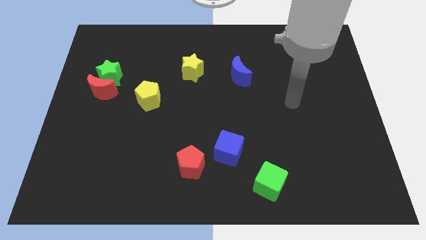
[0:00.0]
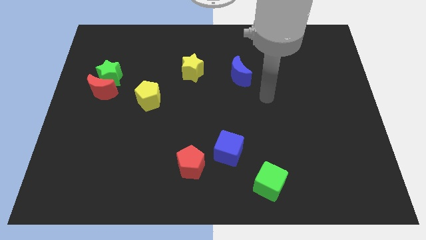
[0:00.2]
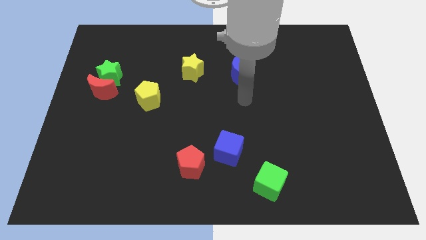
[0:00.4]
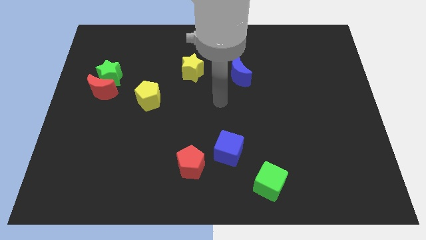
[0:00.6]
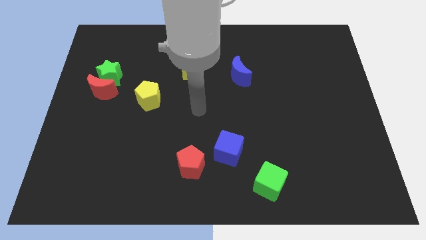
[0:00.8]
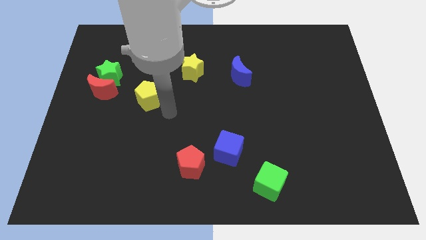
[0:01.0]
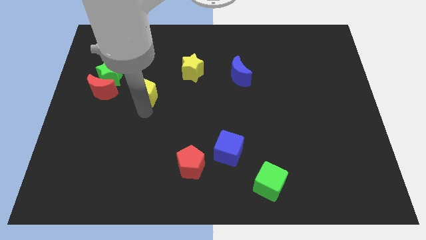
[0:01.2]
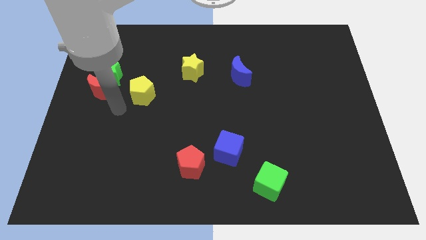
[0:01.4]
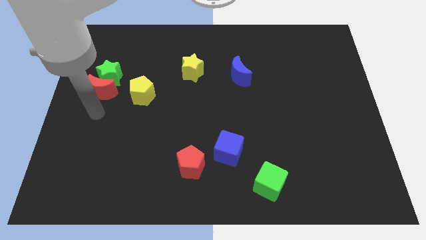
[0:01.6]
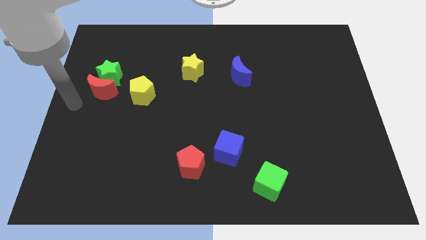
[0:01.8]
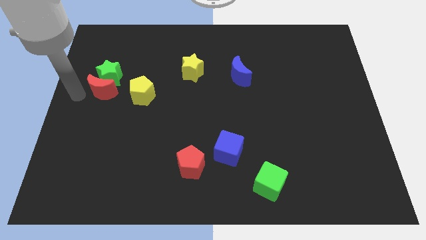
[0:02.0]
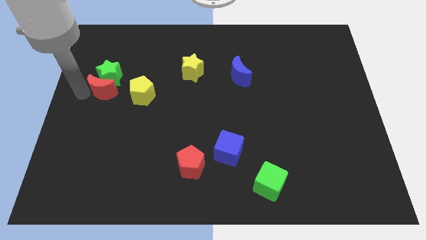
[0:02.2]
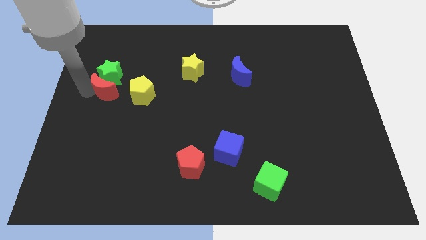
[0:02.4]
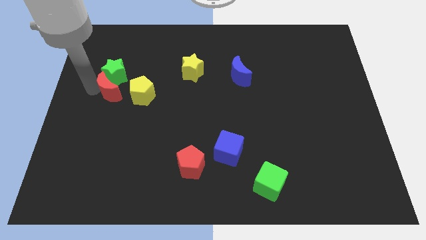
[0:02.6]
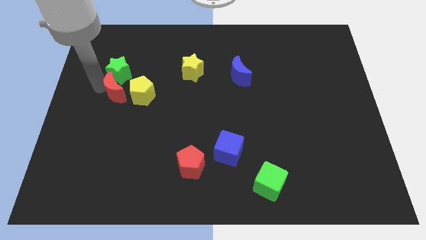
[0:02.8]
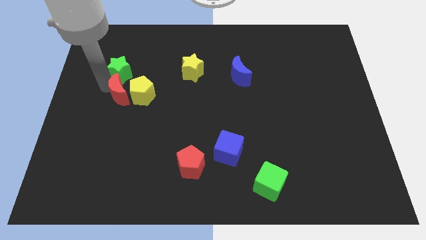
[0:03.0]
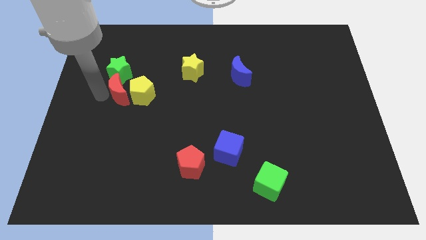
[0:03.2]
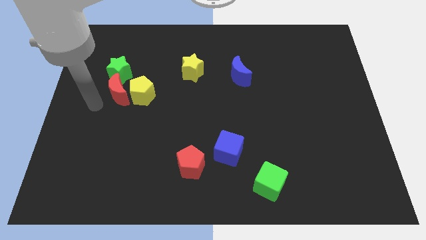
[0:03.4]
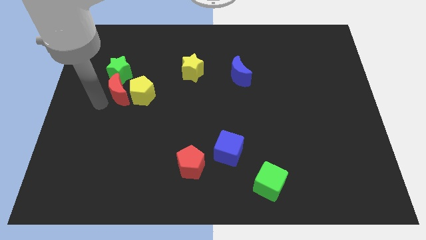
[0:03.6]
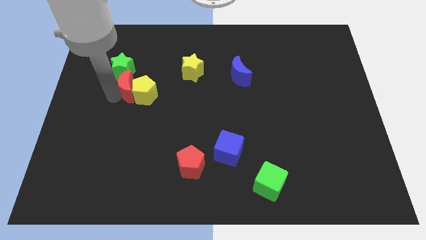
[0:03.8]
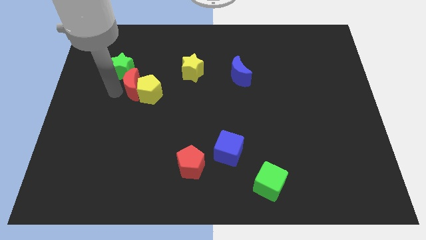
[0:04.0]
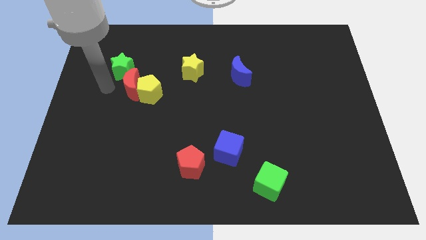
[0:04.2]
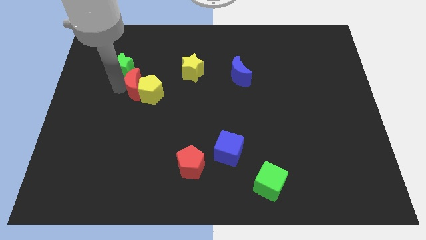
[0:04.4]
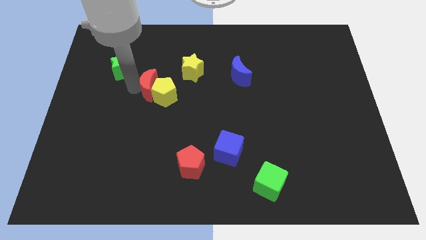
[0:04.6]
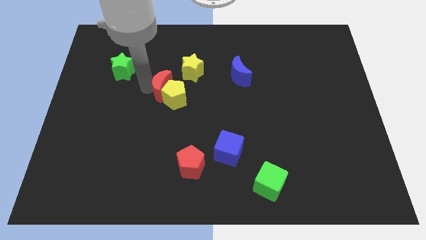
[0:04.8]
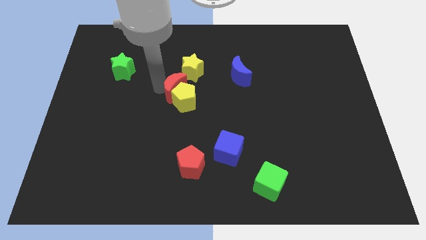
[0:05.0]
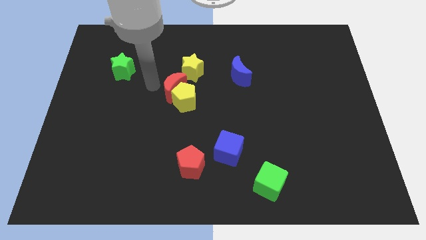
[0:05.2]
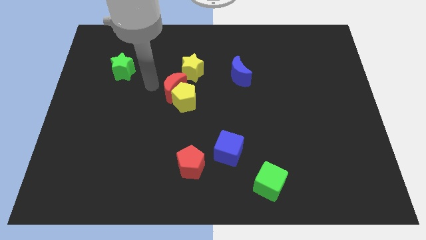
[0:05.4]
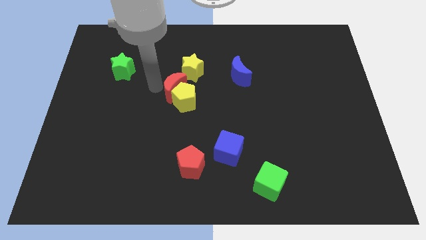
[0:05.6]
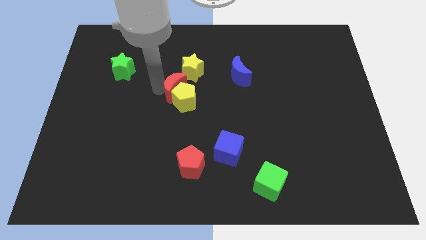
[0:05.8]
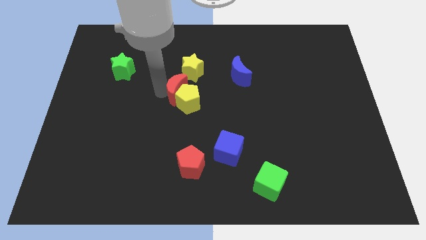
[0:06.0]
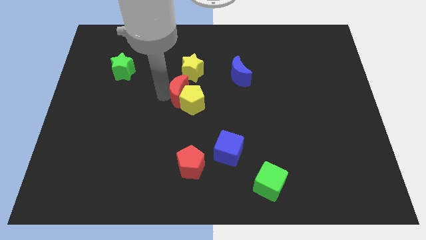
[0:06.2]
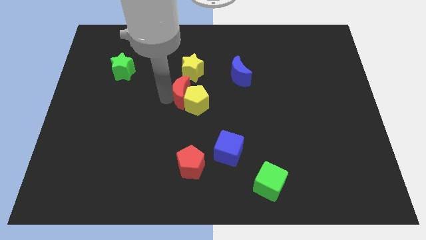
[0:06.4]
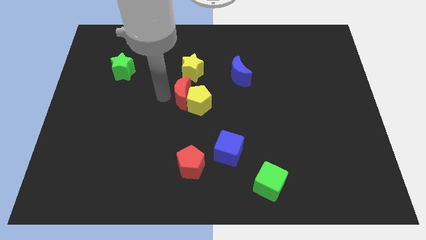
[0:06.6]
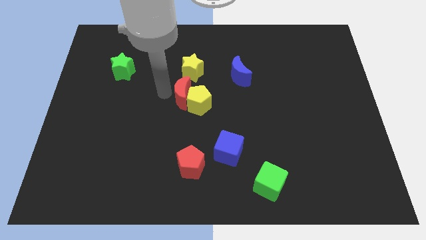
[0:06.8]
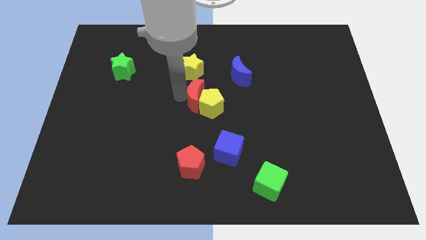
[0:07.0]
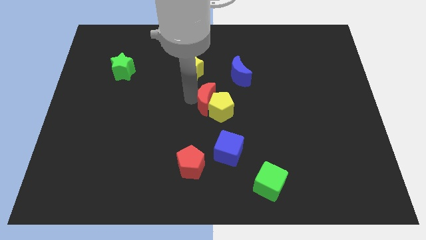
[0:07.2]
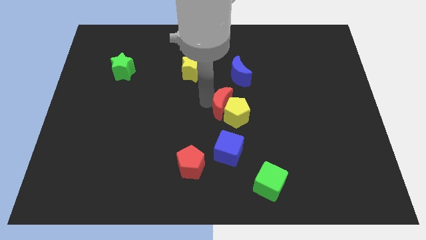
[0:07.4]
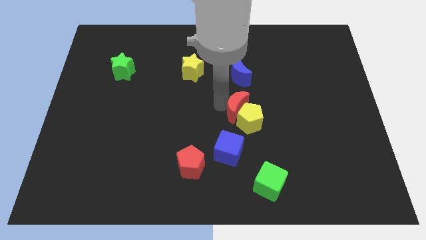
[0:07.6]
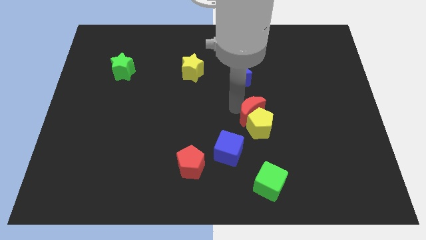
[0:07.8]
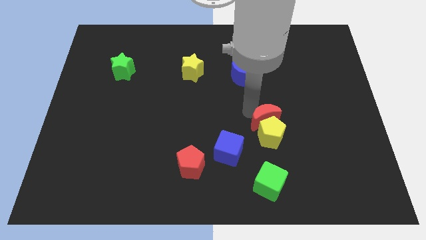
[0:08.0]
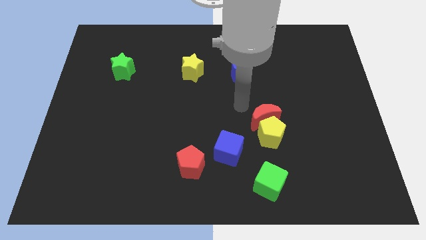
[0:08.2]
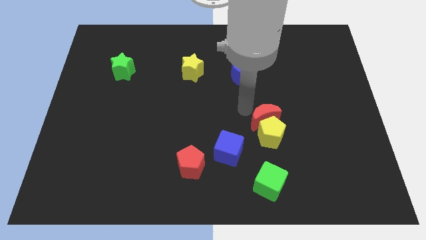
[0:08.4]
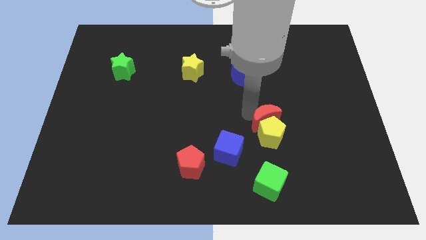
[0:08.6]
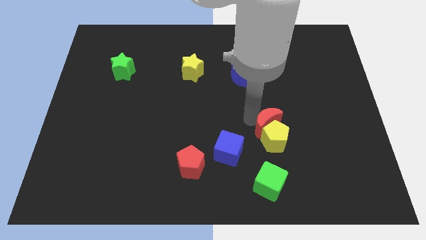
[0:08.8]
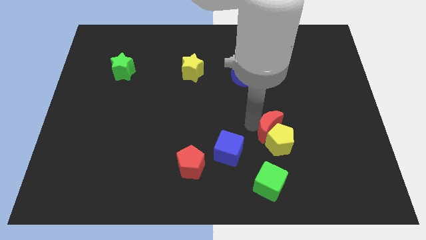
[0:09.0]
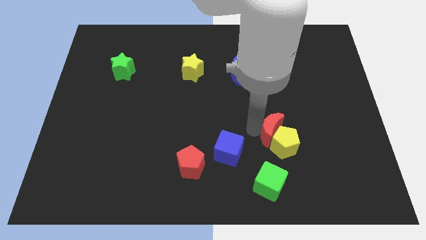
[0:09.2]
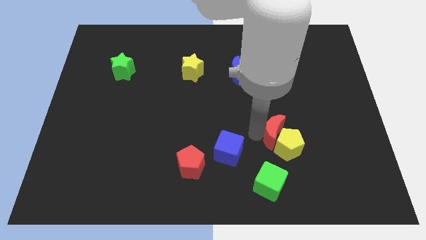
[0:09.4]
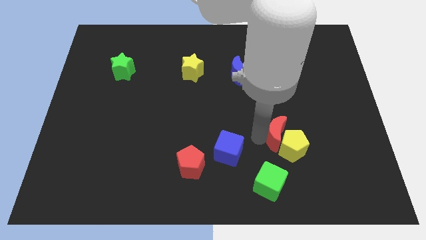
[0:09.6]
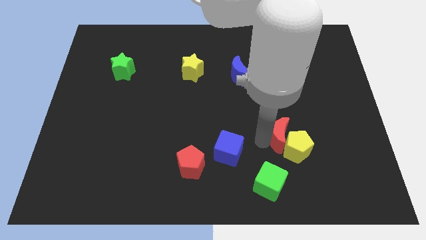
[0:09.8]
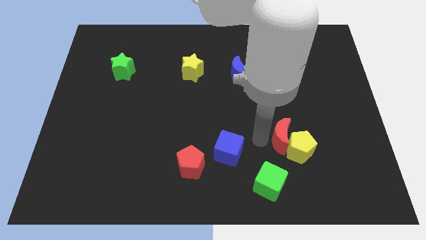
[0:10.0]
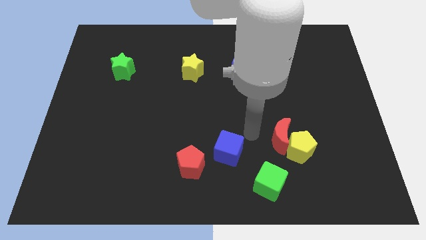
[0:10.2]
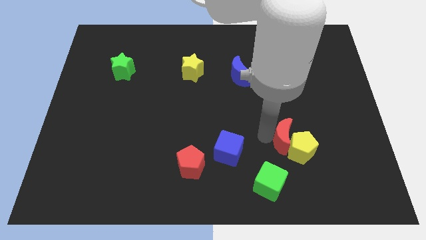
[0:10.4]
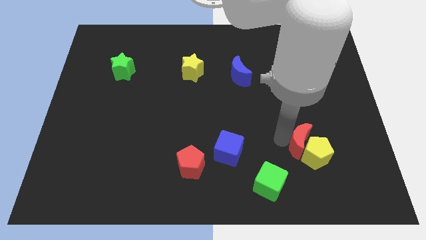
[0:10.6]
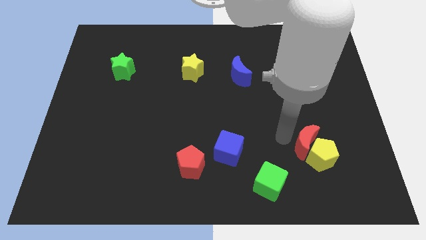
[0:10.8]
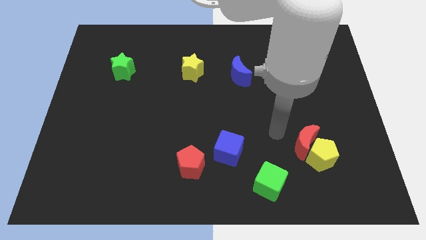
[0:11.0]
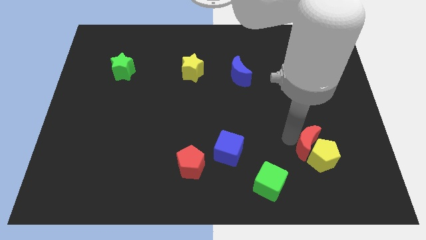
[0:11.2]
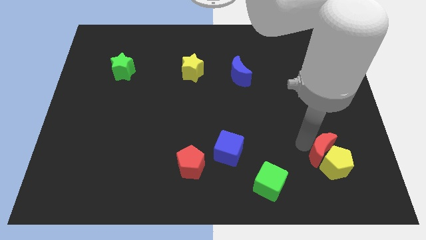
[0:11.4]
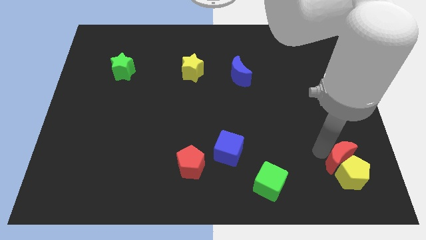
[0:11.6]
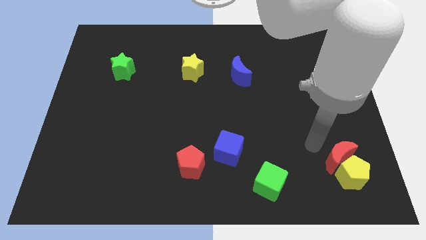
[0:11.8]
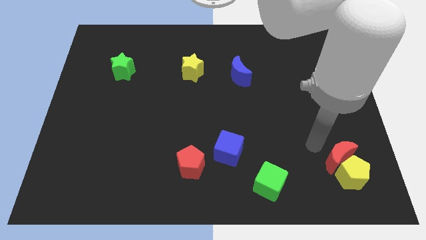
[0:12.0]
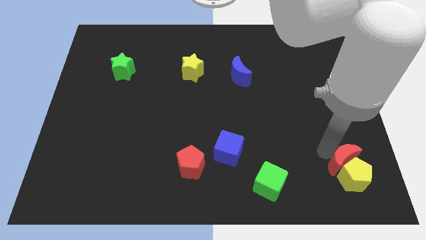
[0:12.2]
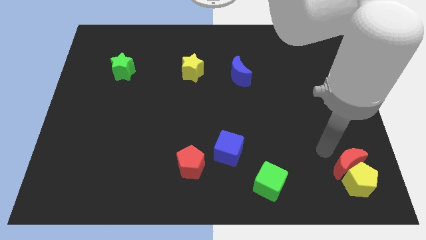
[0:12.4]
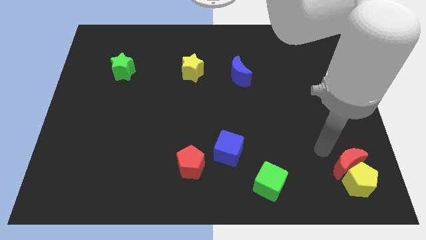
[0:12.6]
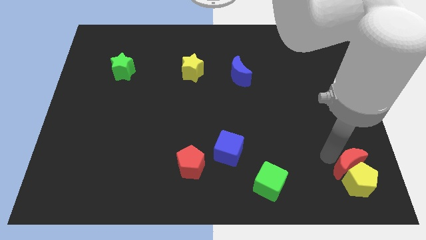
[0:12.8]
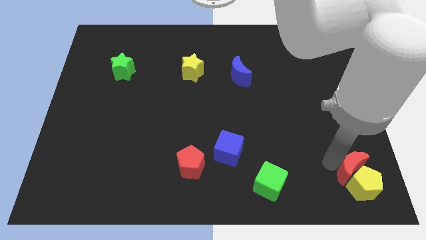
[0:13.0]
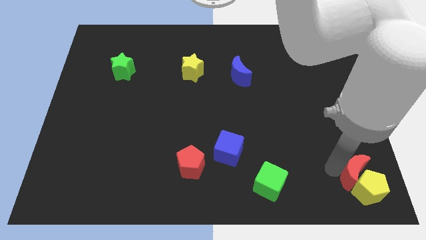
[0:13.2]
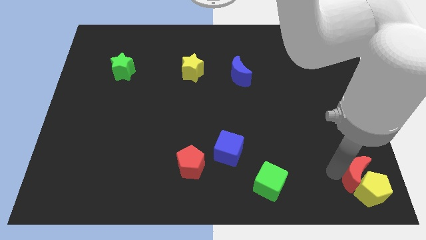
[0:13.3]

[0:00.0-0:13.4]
put the red moon to the lower right corner

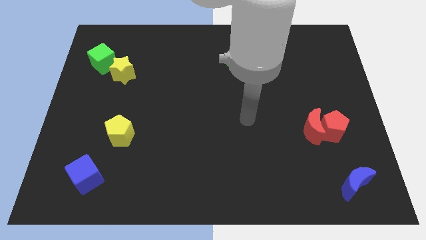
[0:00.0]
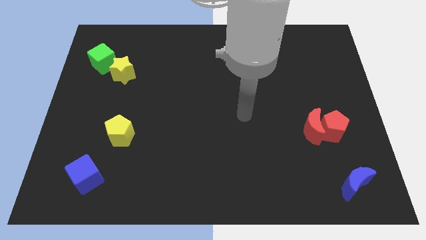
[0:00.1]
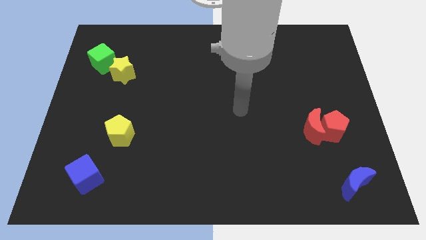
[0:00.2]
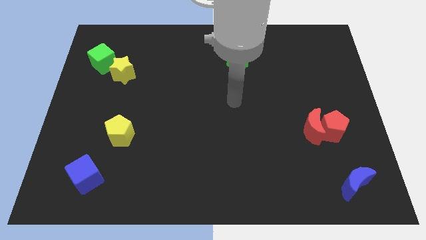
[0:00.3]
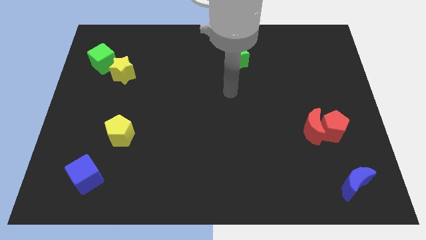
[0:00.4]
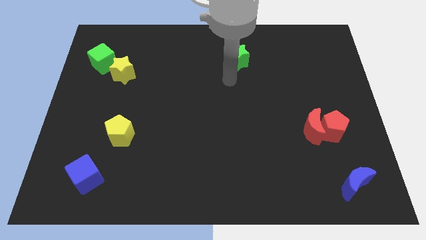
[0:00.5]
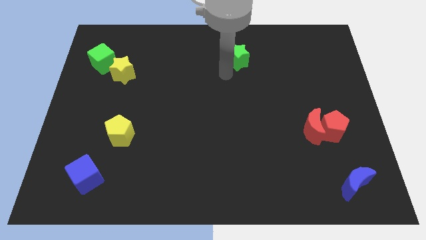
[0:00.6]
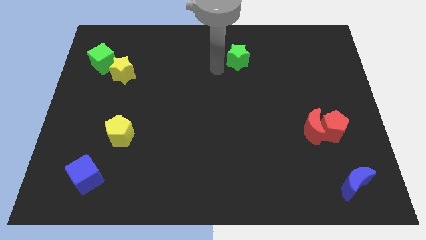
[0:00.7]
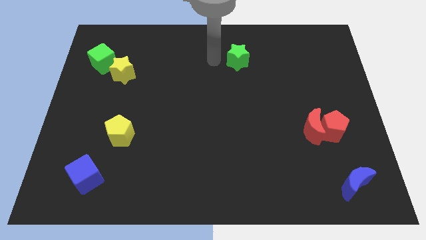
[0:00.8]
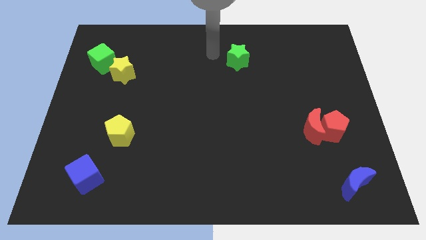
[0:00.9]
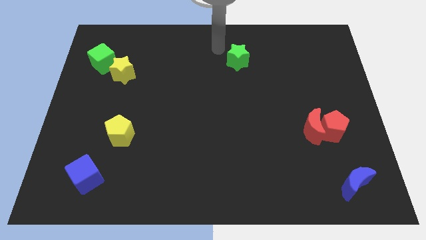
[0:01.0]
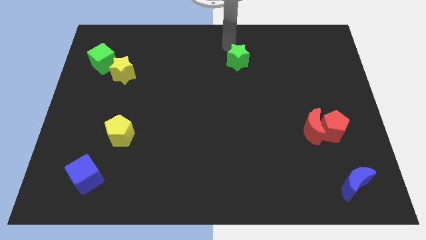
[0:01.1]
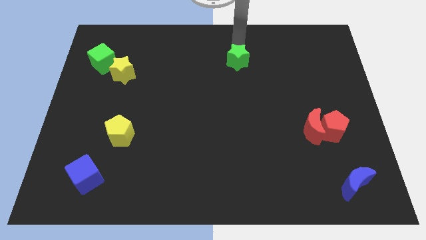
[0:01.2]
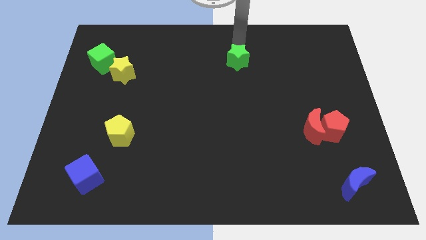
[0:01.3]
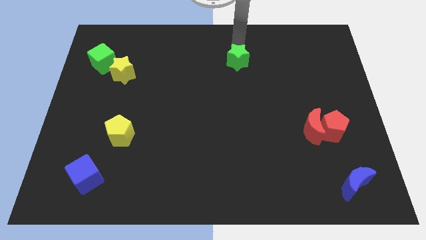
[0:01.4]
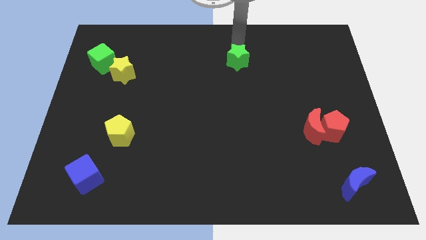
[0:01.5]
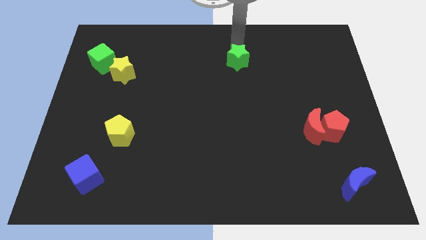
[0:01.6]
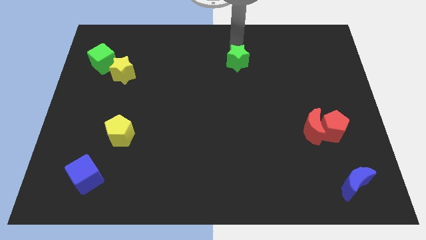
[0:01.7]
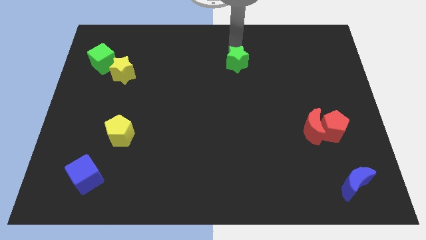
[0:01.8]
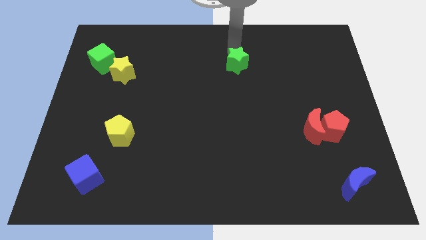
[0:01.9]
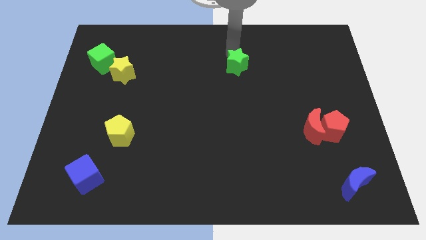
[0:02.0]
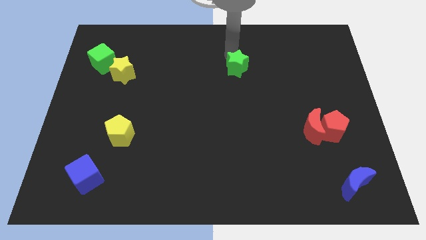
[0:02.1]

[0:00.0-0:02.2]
push the green star to the center
